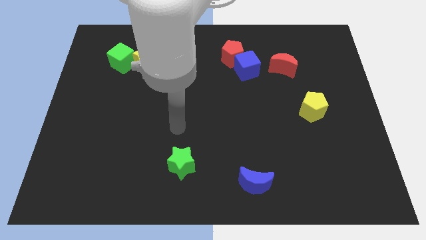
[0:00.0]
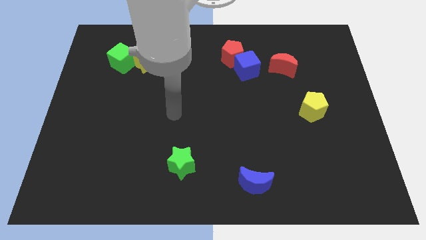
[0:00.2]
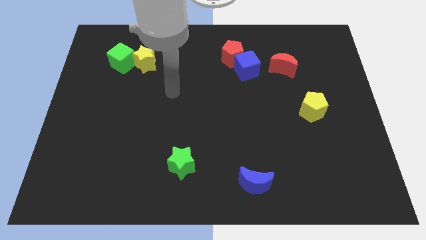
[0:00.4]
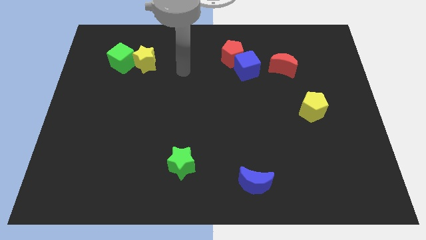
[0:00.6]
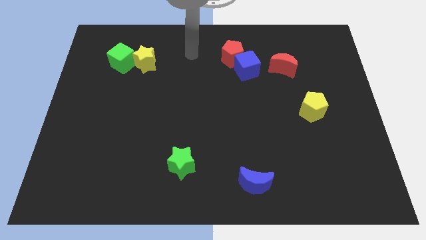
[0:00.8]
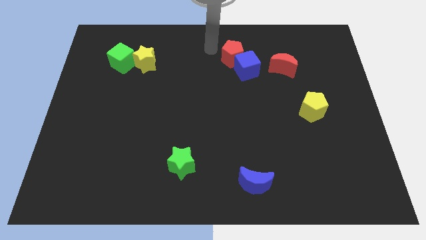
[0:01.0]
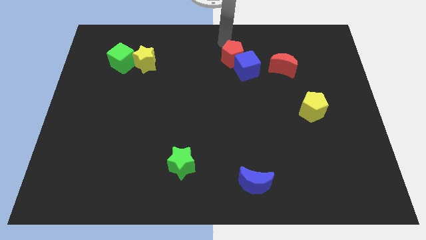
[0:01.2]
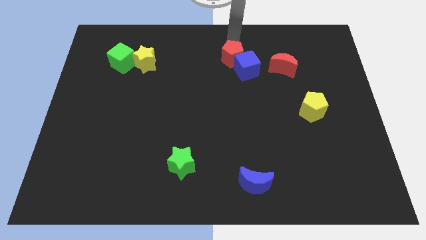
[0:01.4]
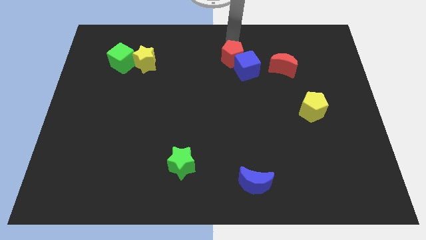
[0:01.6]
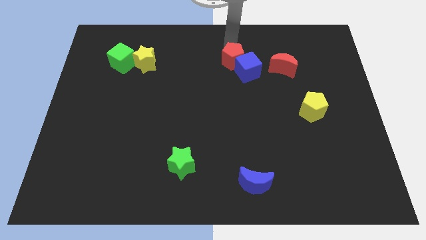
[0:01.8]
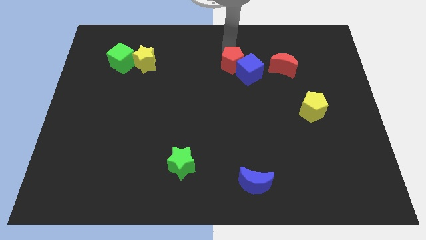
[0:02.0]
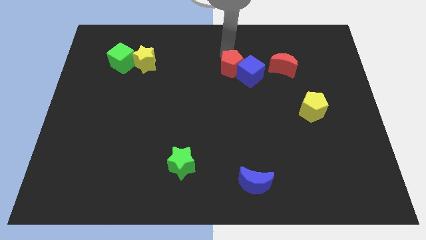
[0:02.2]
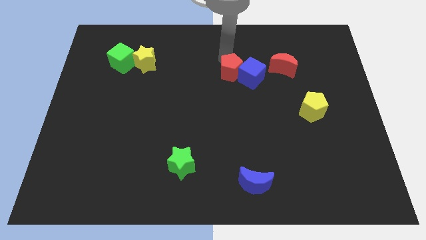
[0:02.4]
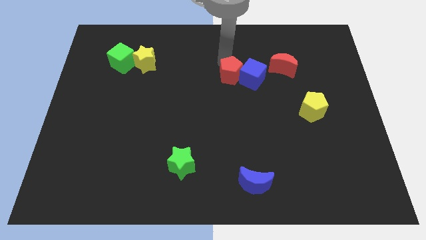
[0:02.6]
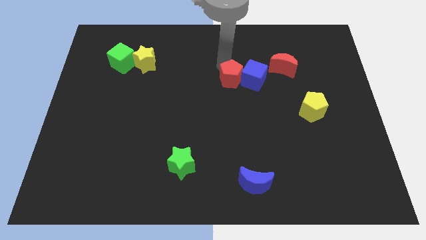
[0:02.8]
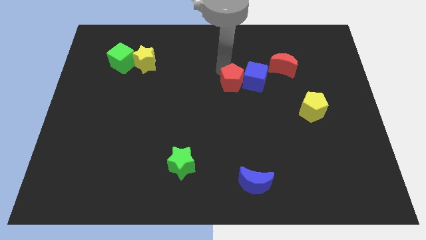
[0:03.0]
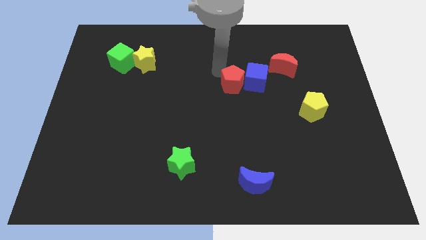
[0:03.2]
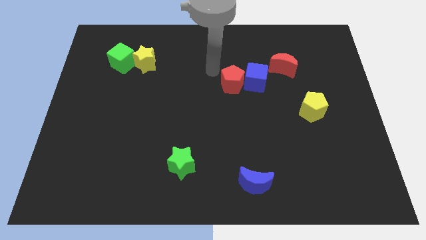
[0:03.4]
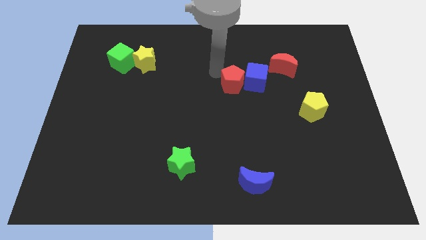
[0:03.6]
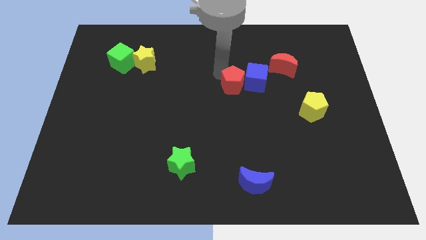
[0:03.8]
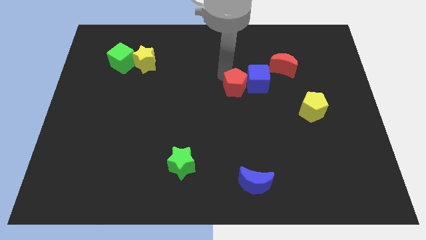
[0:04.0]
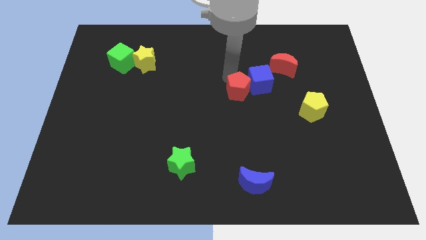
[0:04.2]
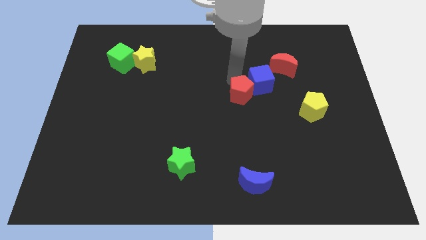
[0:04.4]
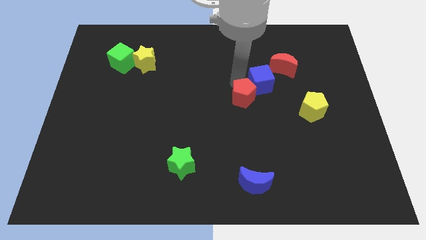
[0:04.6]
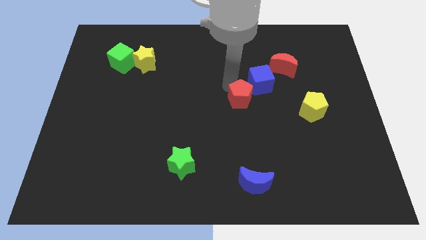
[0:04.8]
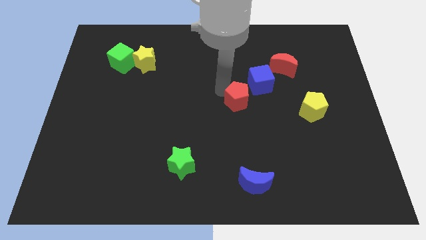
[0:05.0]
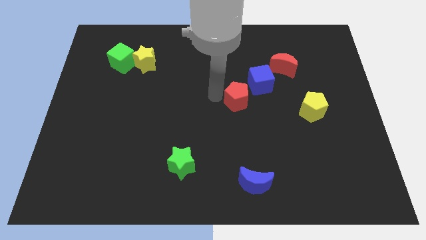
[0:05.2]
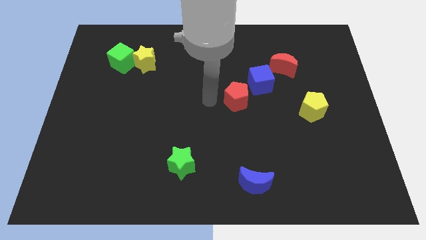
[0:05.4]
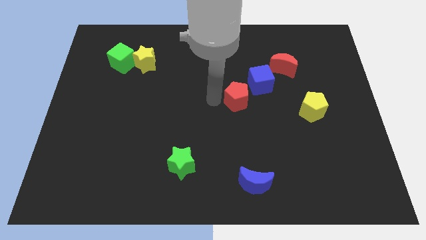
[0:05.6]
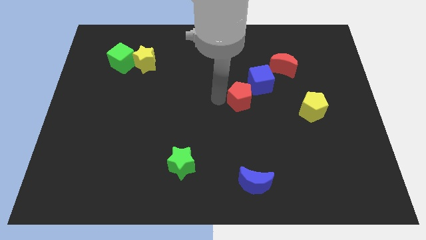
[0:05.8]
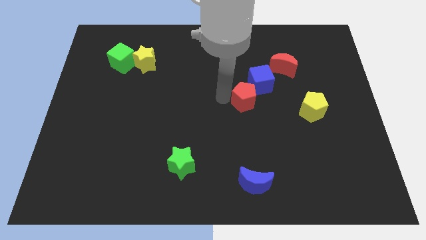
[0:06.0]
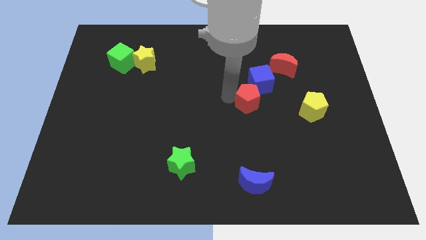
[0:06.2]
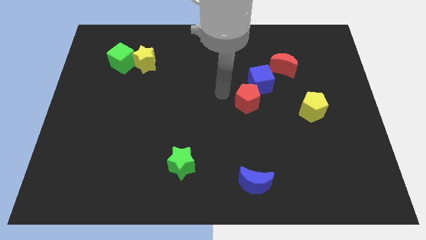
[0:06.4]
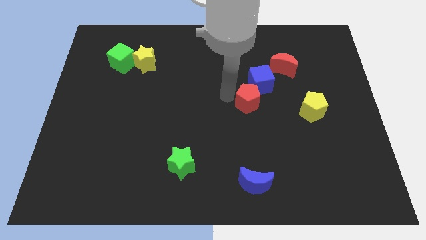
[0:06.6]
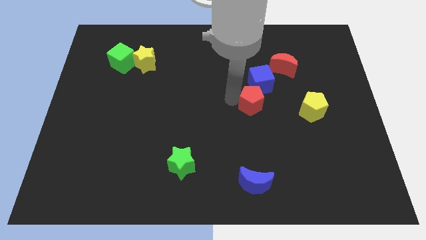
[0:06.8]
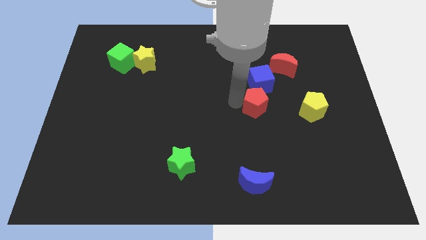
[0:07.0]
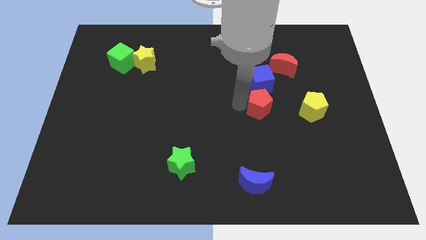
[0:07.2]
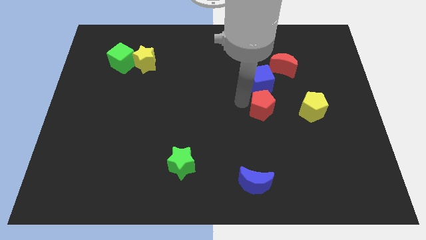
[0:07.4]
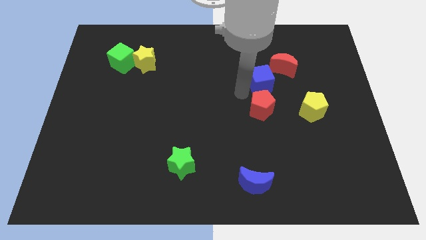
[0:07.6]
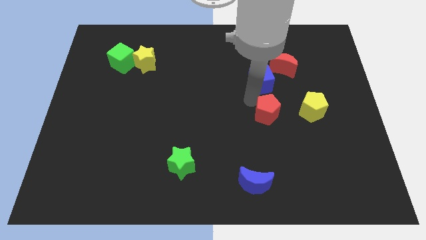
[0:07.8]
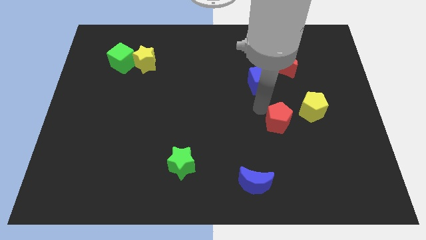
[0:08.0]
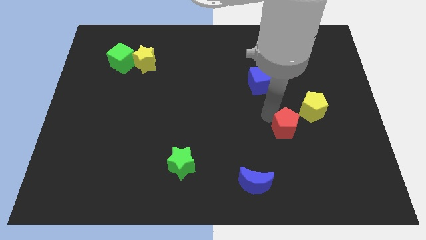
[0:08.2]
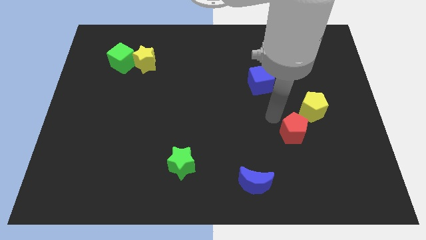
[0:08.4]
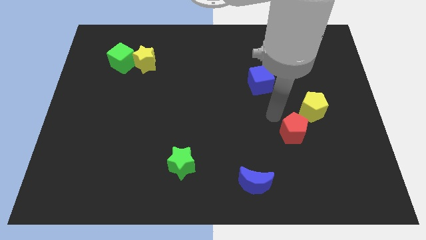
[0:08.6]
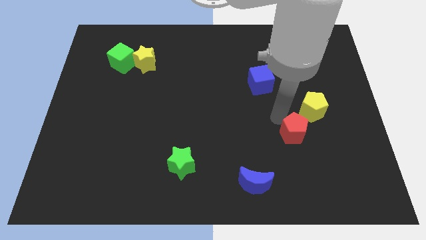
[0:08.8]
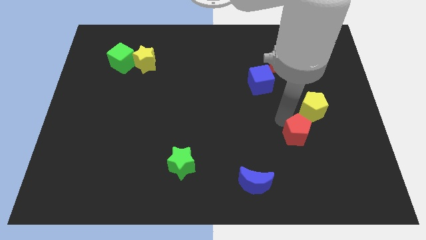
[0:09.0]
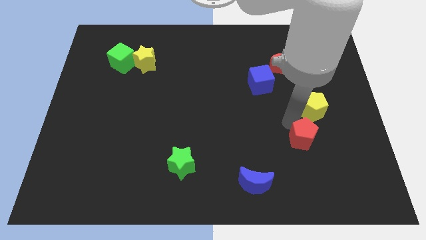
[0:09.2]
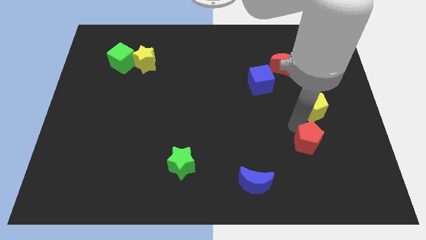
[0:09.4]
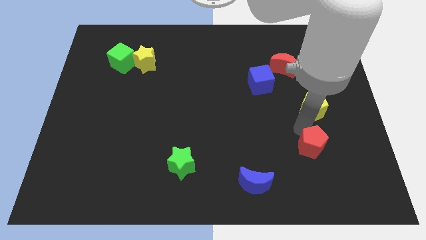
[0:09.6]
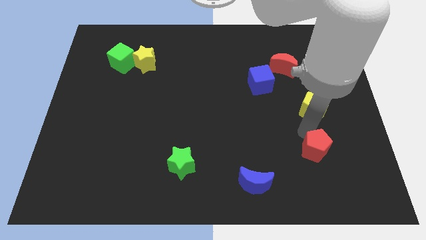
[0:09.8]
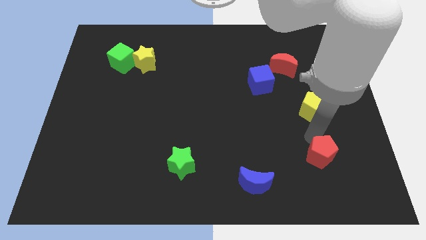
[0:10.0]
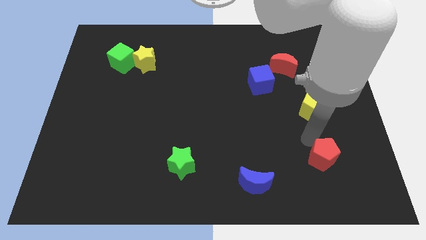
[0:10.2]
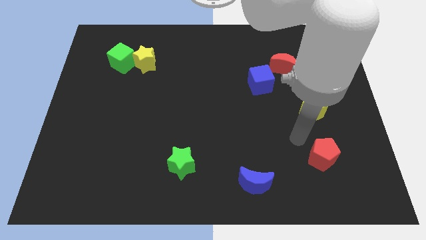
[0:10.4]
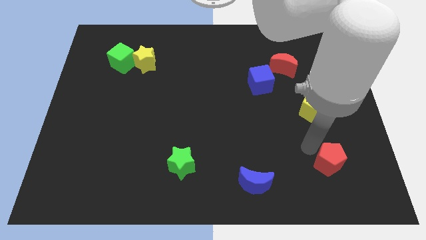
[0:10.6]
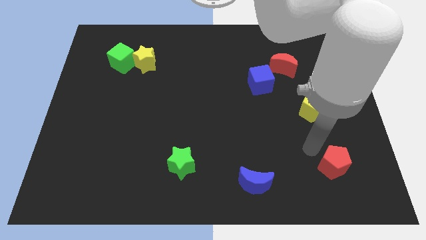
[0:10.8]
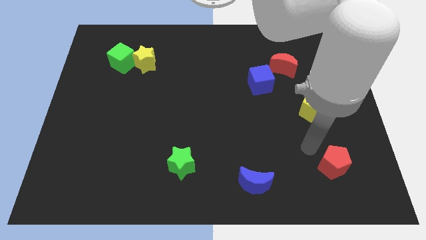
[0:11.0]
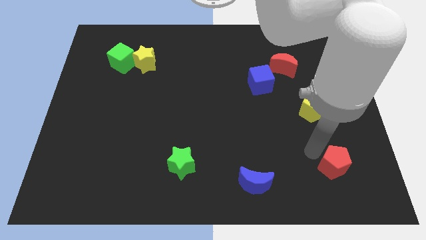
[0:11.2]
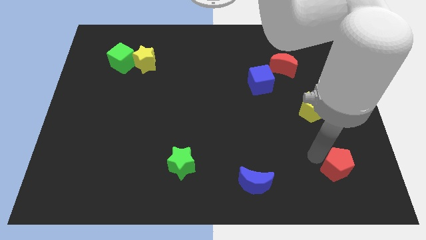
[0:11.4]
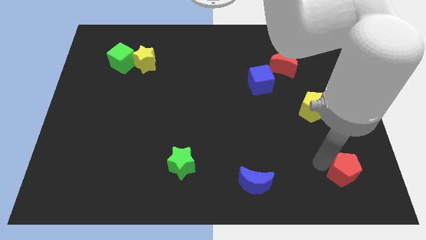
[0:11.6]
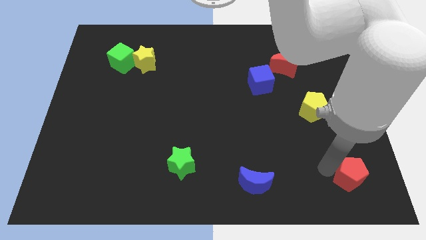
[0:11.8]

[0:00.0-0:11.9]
push the red pentagon to the lower right corner

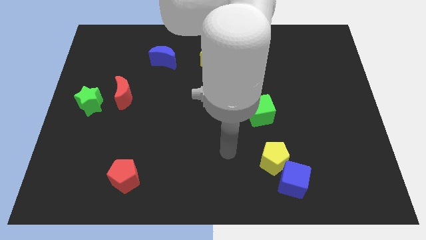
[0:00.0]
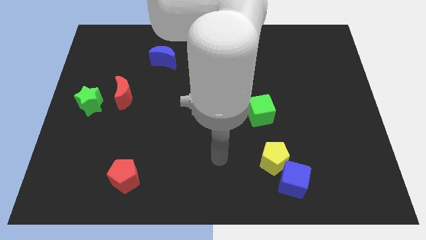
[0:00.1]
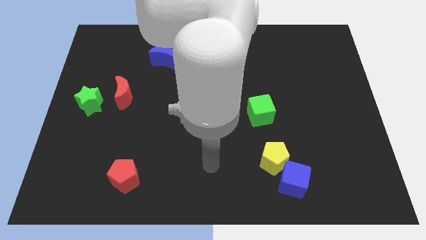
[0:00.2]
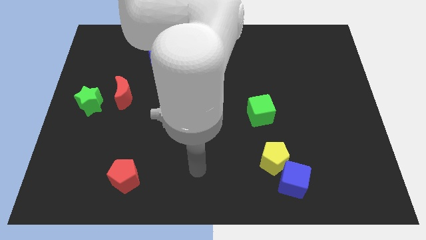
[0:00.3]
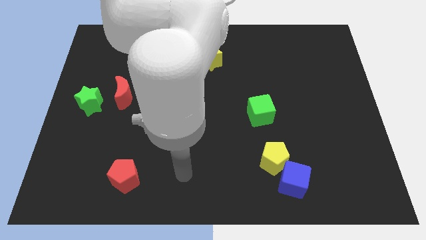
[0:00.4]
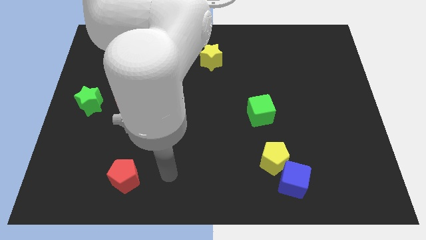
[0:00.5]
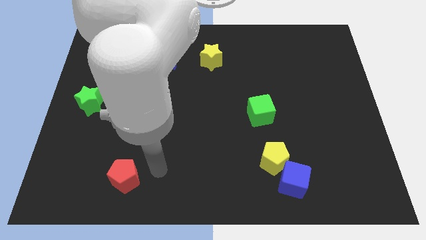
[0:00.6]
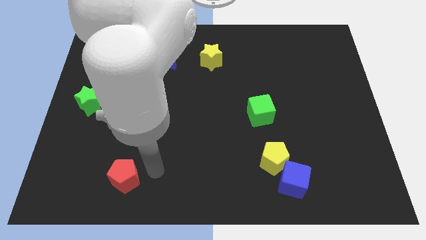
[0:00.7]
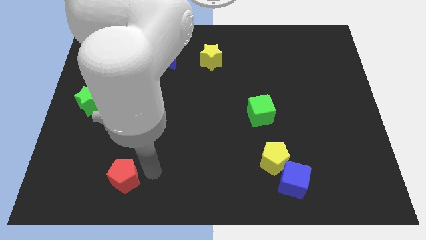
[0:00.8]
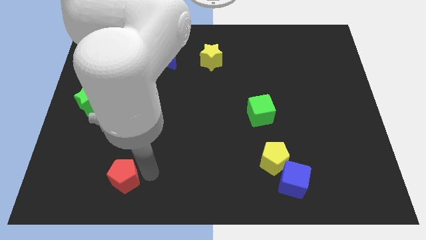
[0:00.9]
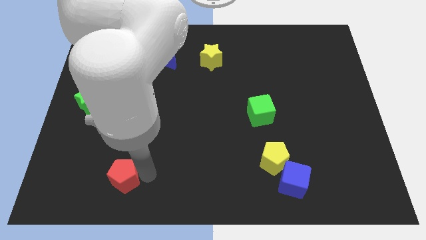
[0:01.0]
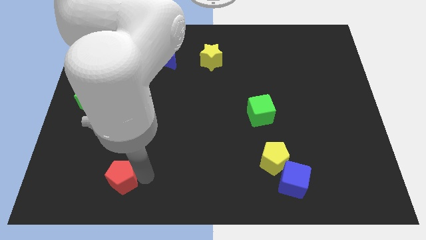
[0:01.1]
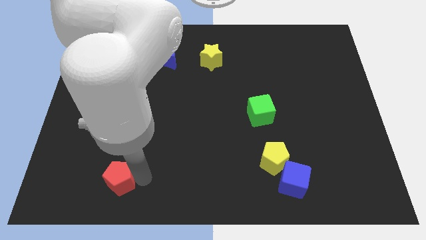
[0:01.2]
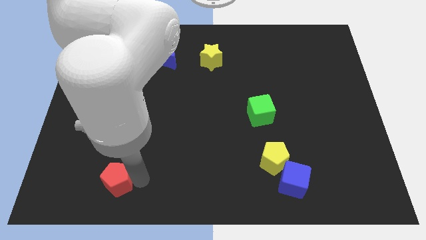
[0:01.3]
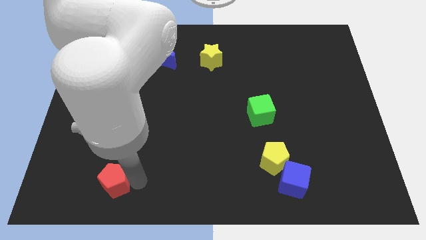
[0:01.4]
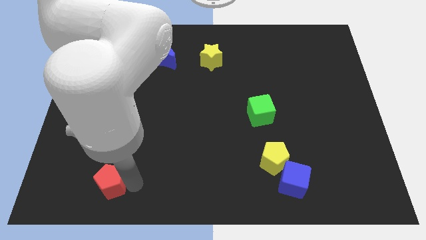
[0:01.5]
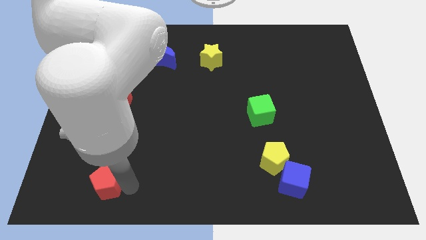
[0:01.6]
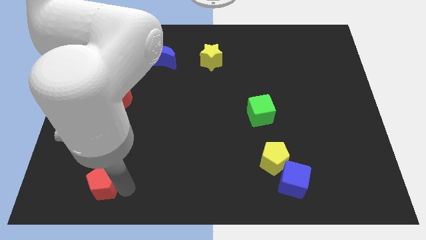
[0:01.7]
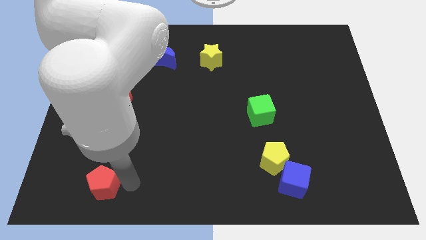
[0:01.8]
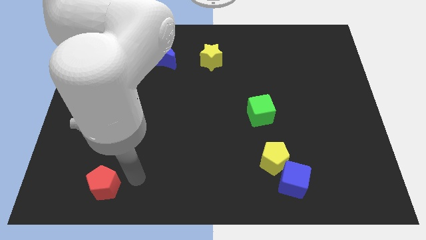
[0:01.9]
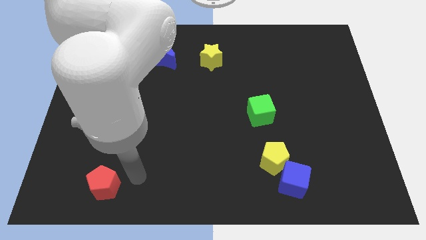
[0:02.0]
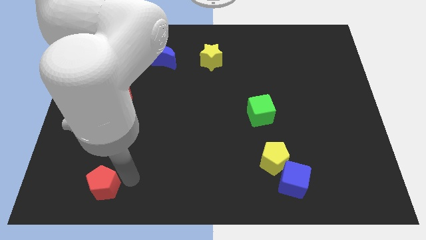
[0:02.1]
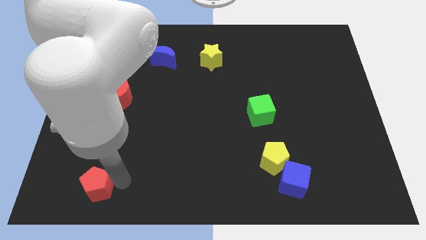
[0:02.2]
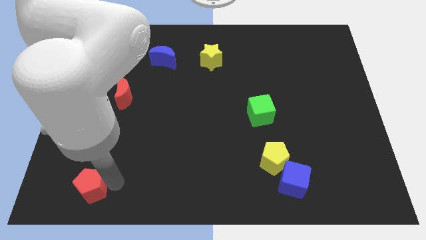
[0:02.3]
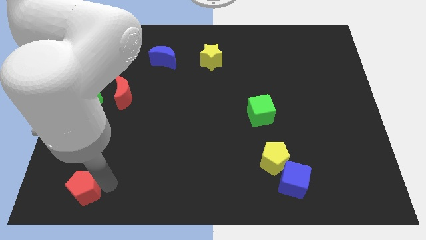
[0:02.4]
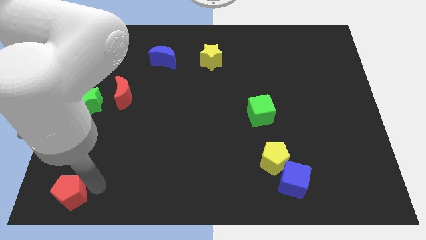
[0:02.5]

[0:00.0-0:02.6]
move the red pentagon to the bottom left corner
